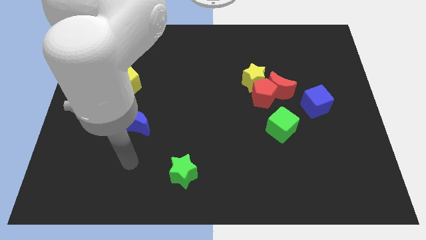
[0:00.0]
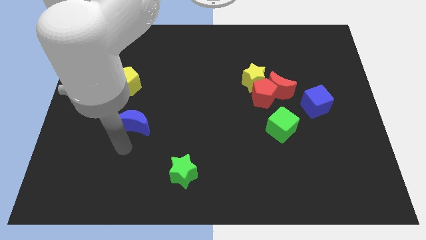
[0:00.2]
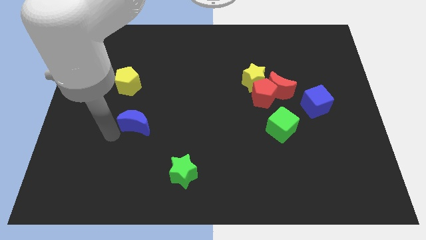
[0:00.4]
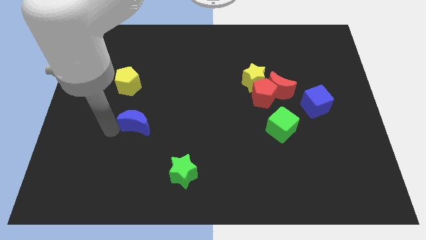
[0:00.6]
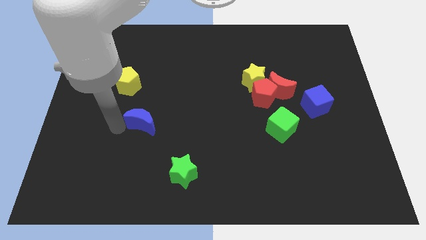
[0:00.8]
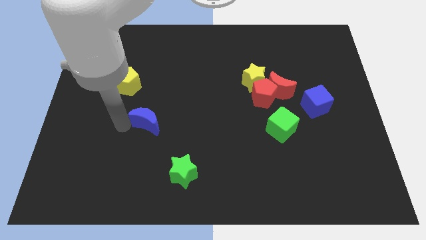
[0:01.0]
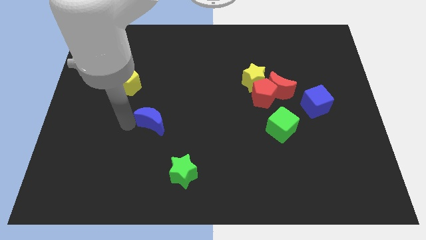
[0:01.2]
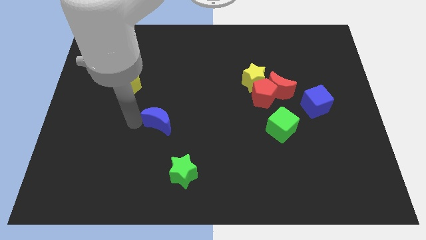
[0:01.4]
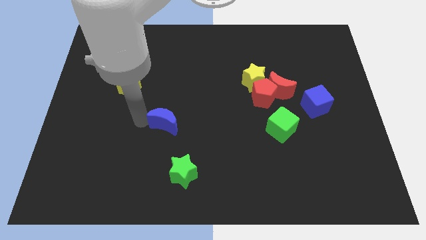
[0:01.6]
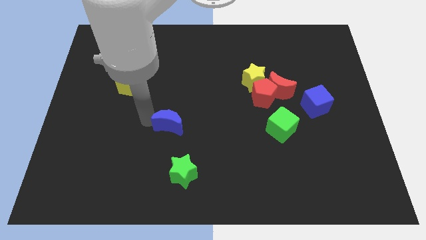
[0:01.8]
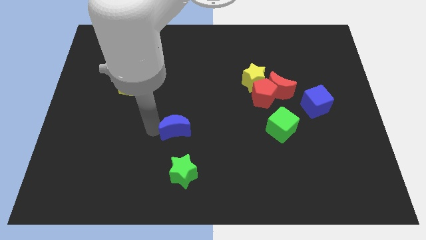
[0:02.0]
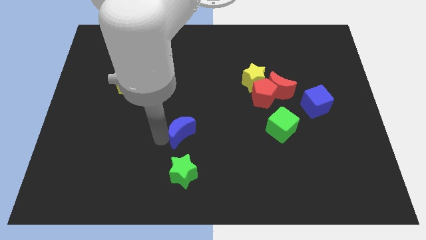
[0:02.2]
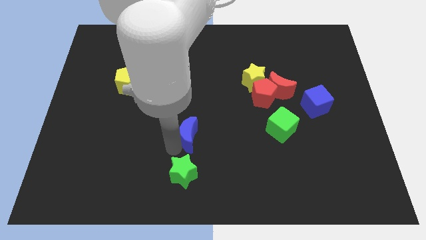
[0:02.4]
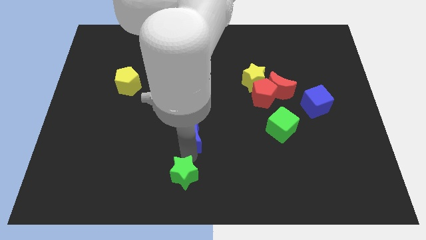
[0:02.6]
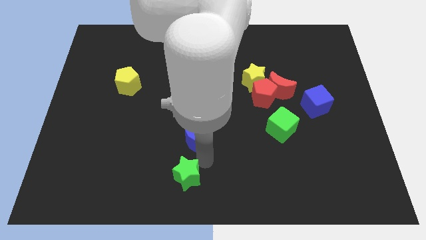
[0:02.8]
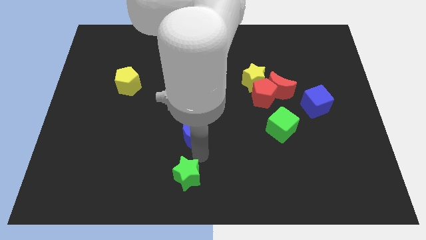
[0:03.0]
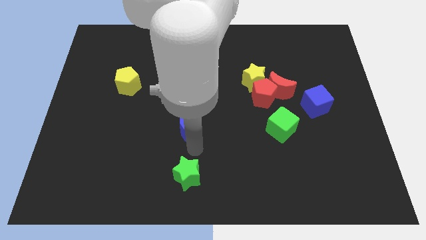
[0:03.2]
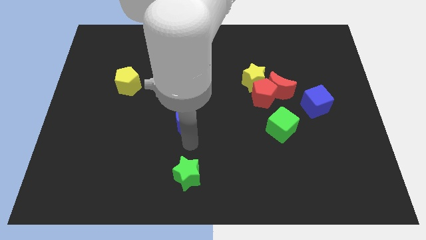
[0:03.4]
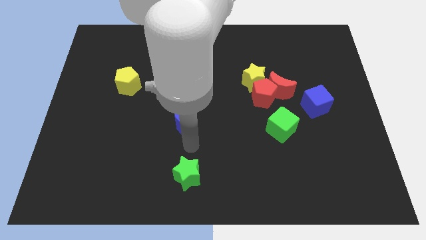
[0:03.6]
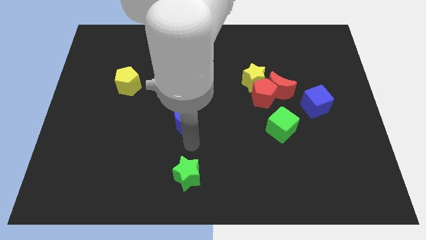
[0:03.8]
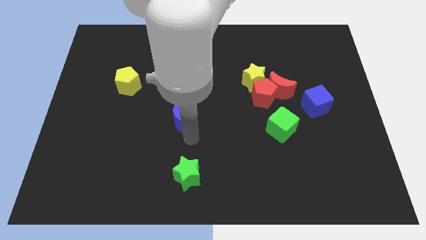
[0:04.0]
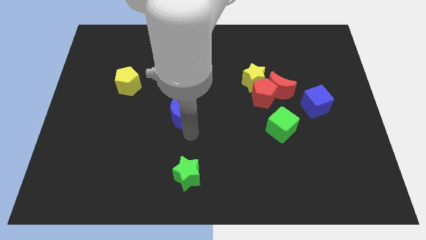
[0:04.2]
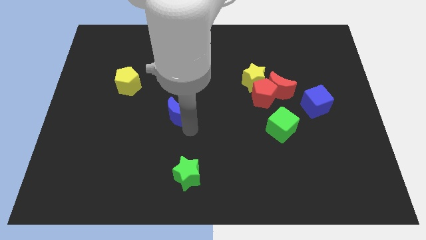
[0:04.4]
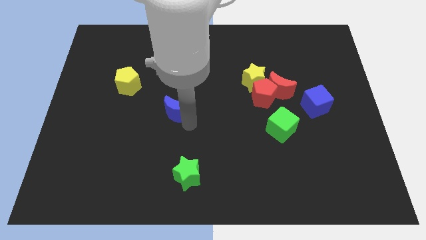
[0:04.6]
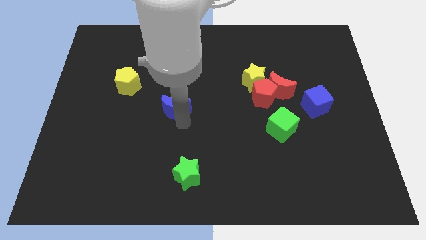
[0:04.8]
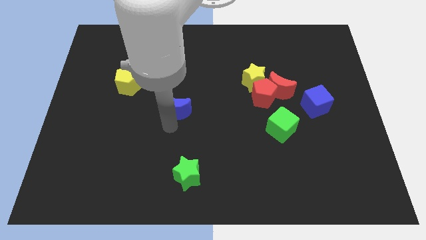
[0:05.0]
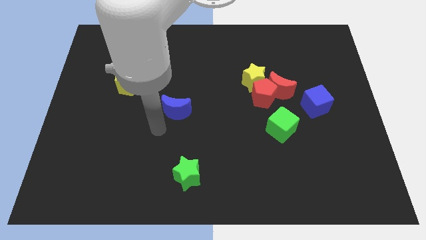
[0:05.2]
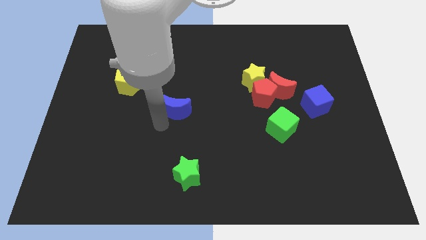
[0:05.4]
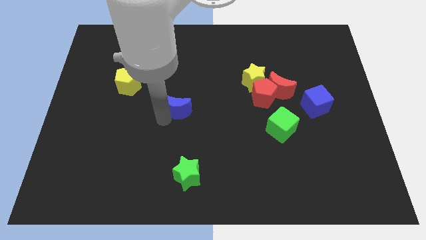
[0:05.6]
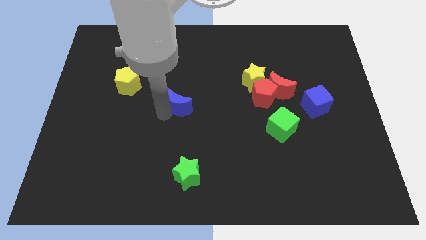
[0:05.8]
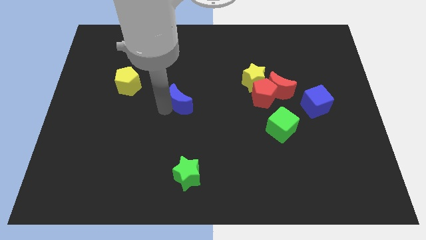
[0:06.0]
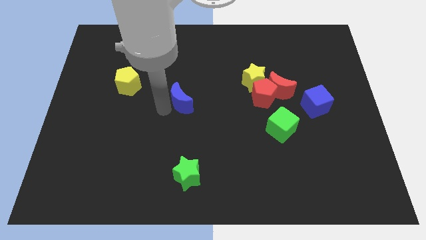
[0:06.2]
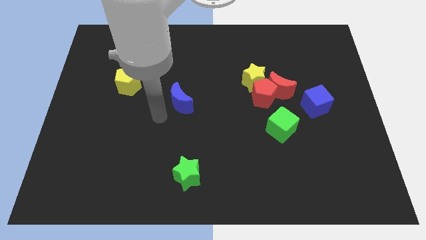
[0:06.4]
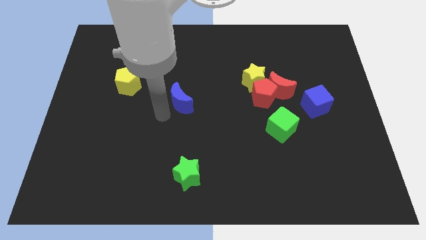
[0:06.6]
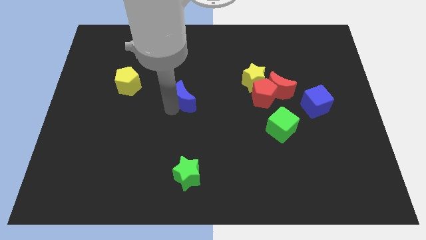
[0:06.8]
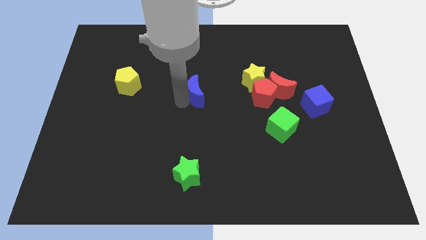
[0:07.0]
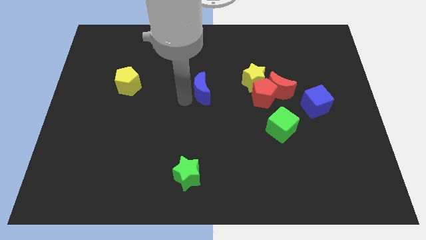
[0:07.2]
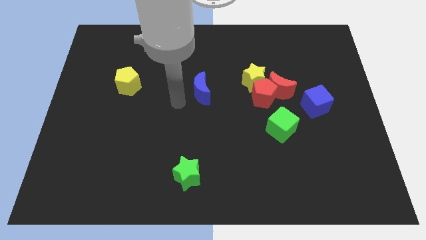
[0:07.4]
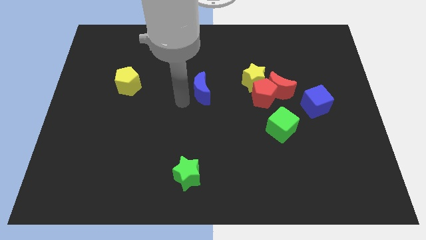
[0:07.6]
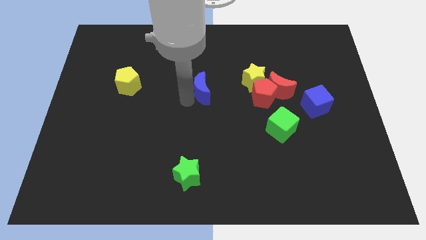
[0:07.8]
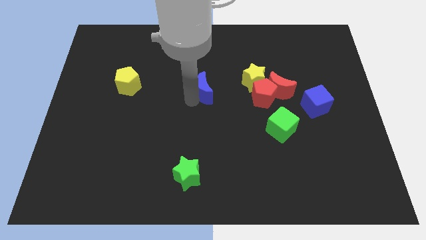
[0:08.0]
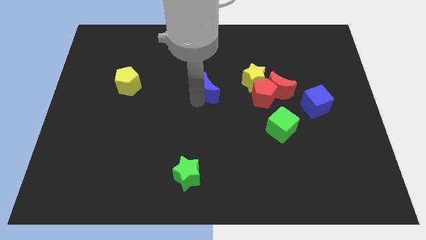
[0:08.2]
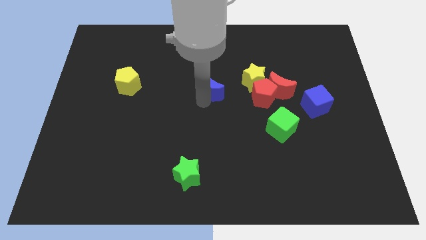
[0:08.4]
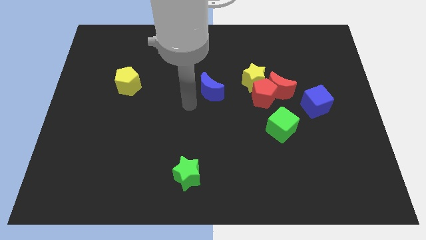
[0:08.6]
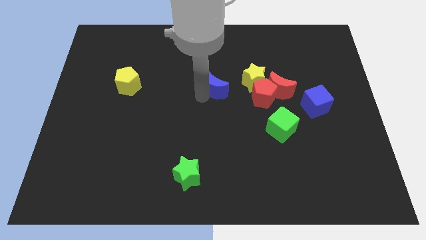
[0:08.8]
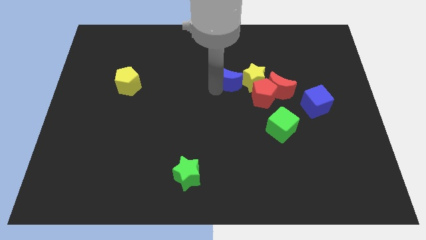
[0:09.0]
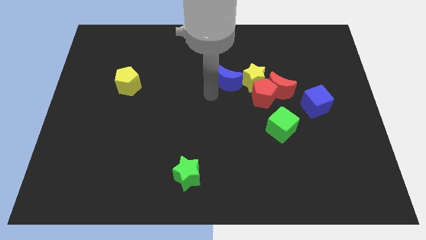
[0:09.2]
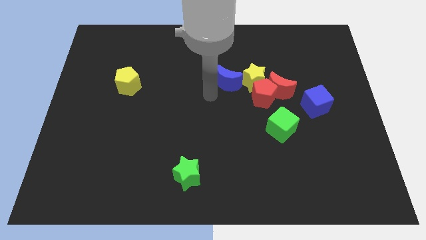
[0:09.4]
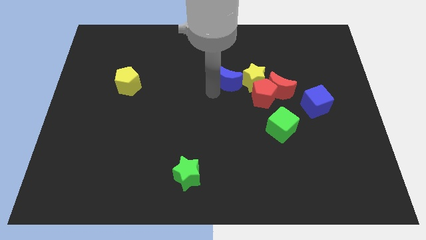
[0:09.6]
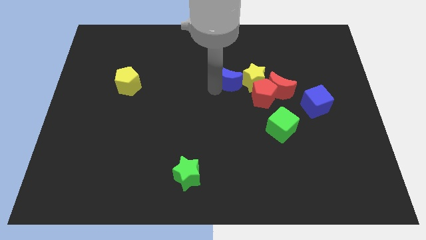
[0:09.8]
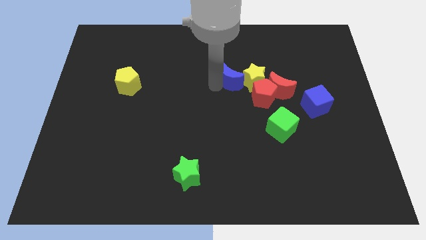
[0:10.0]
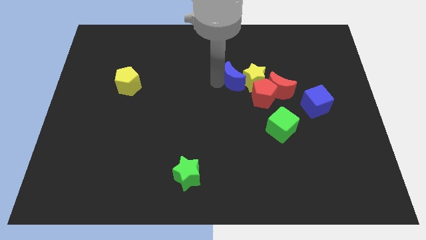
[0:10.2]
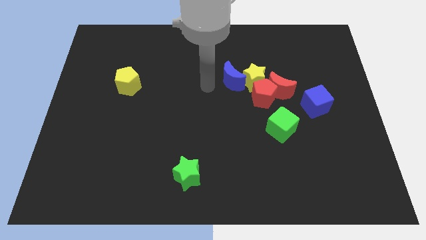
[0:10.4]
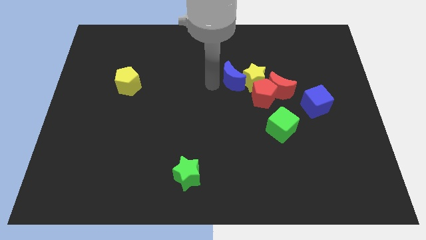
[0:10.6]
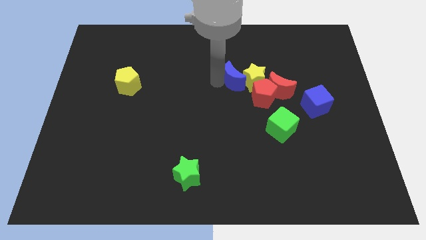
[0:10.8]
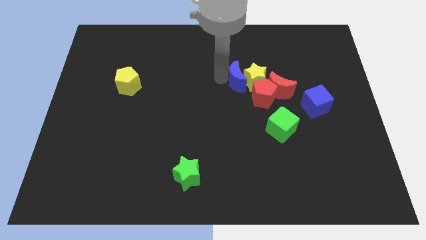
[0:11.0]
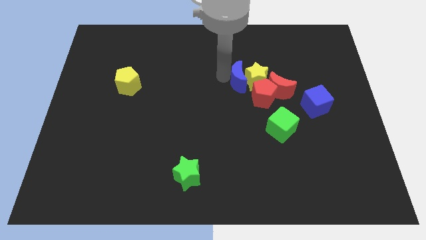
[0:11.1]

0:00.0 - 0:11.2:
slide the blue moon to the top left of the red moon

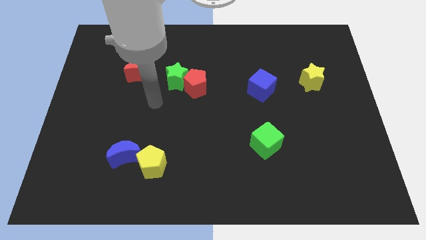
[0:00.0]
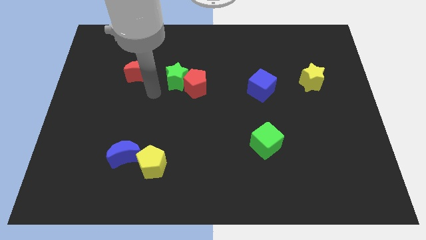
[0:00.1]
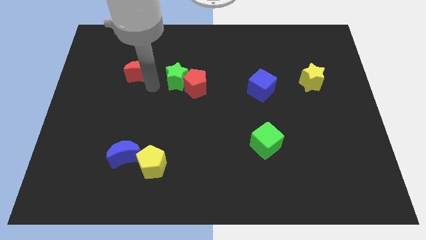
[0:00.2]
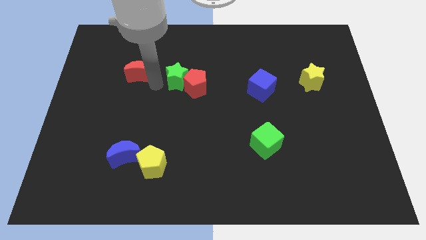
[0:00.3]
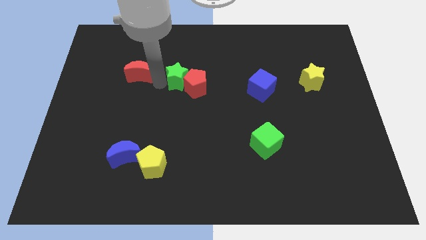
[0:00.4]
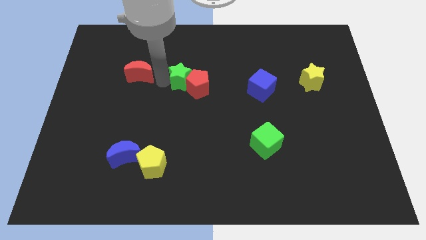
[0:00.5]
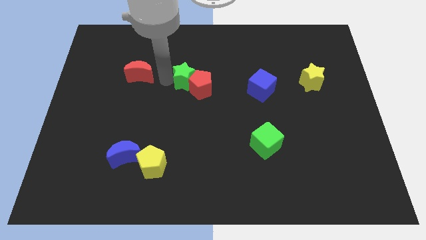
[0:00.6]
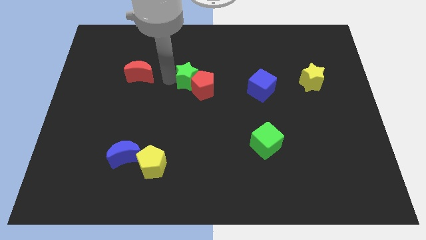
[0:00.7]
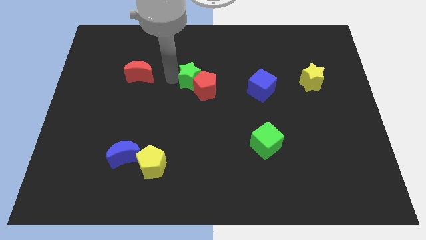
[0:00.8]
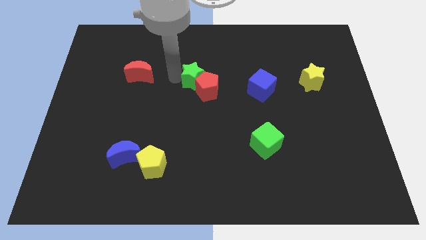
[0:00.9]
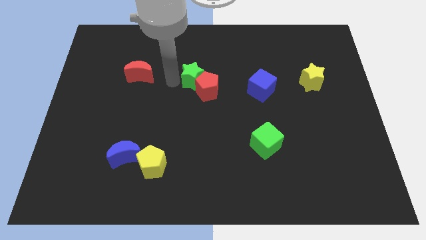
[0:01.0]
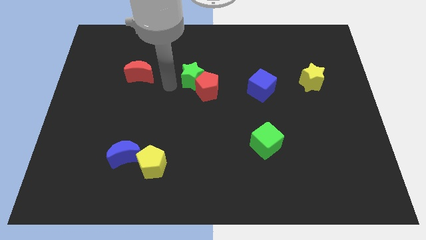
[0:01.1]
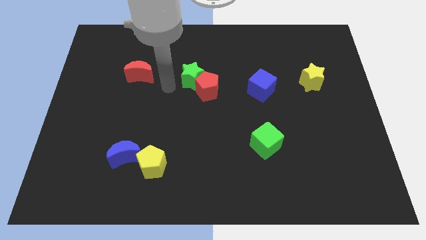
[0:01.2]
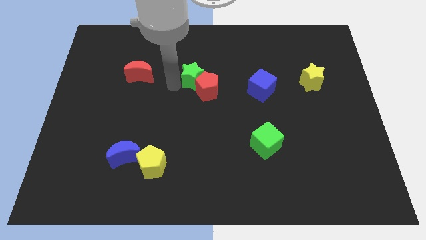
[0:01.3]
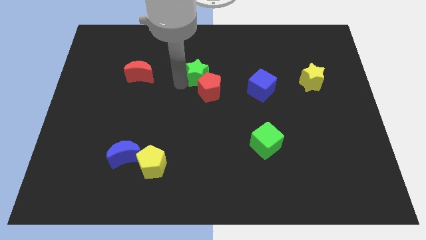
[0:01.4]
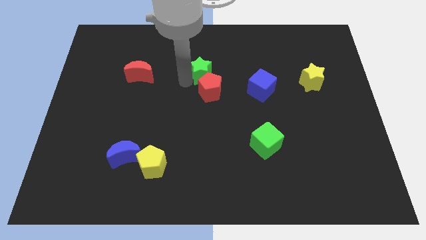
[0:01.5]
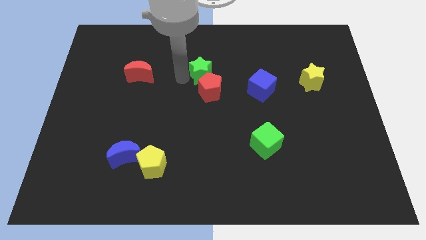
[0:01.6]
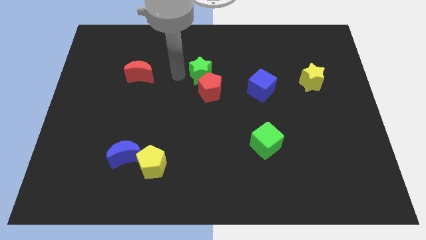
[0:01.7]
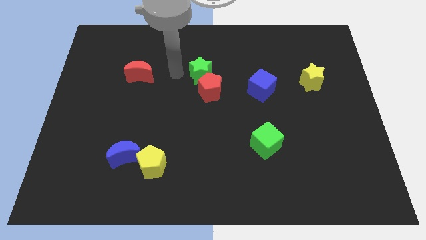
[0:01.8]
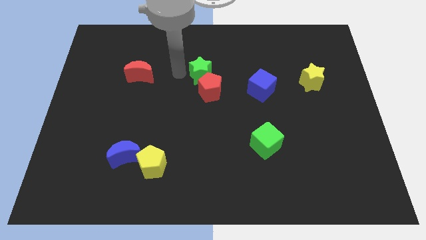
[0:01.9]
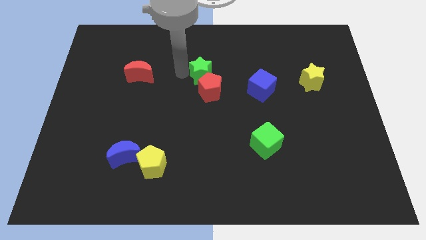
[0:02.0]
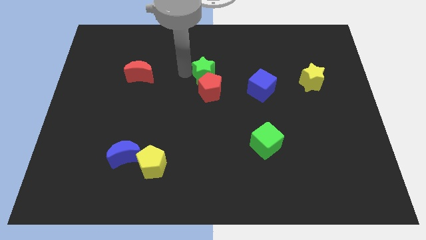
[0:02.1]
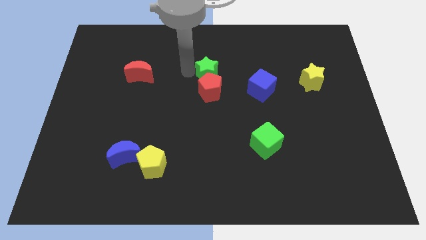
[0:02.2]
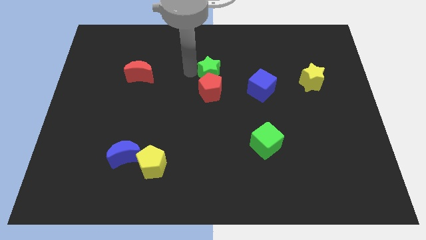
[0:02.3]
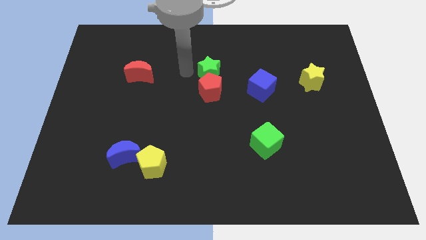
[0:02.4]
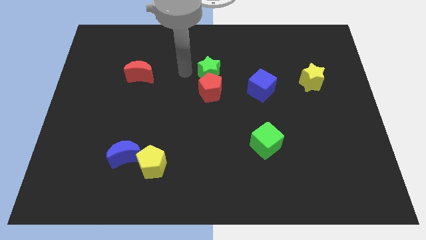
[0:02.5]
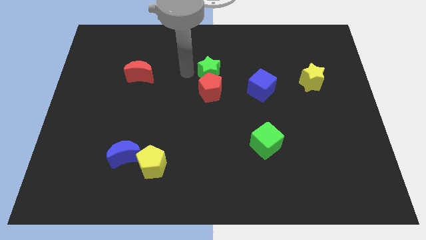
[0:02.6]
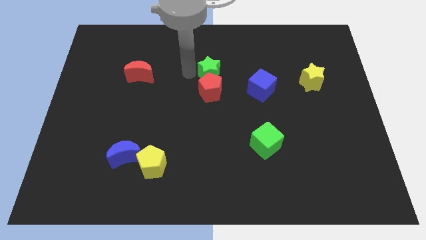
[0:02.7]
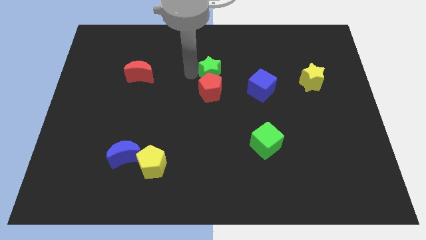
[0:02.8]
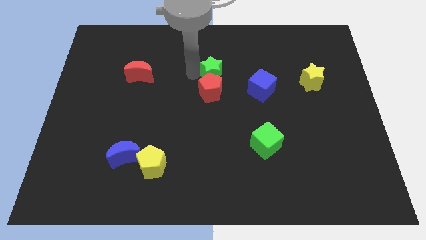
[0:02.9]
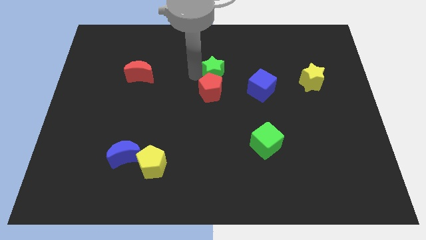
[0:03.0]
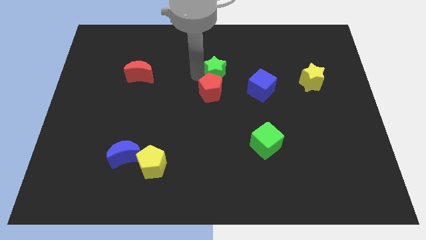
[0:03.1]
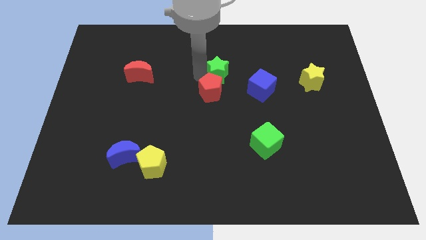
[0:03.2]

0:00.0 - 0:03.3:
push the green star to the top left of the blue cube
